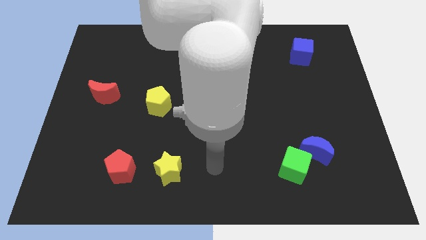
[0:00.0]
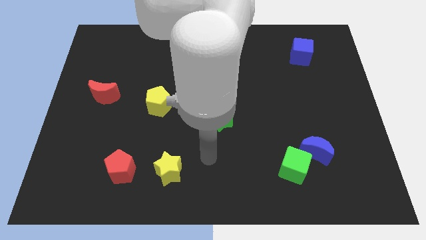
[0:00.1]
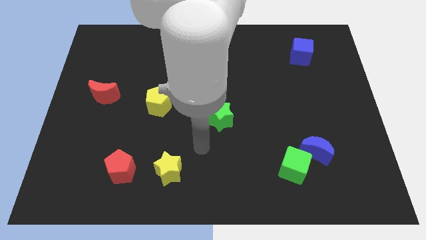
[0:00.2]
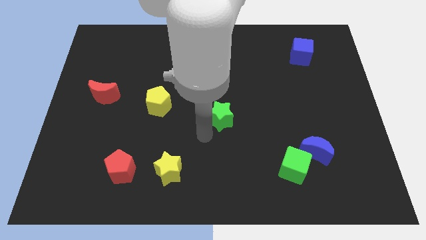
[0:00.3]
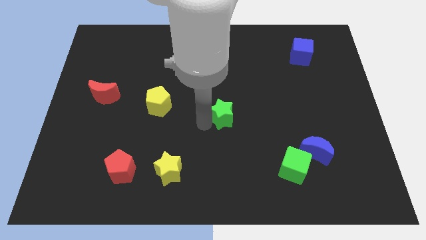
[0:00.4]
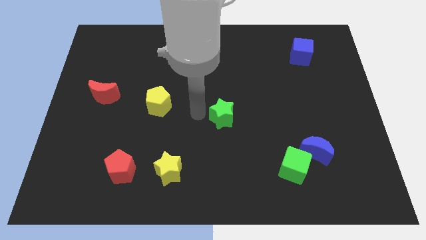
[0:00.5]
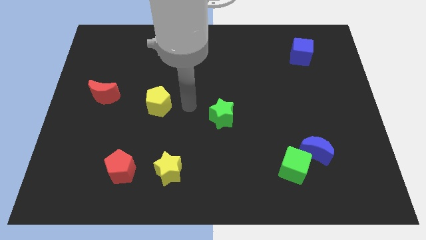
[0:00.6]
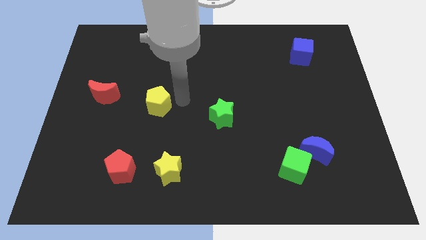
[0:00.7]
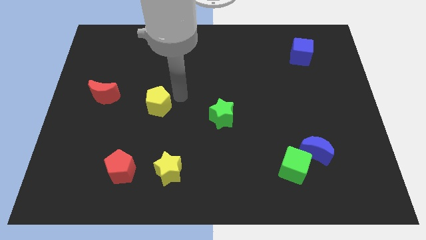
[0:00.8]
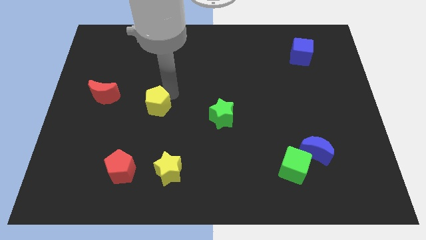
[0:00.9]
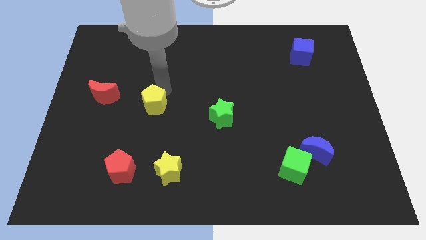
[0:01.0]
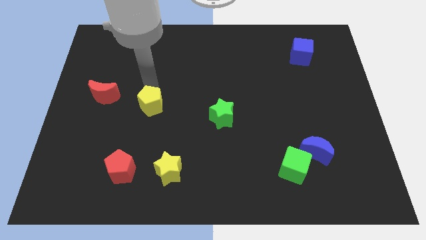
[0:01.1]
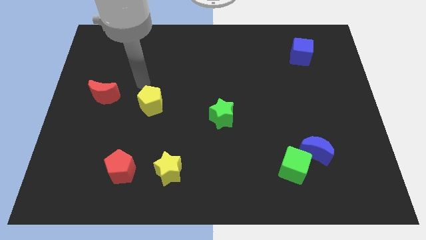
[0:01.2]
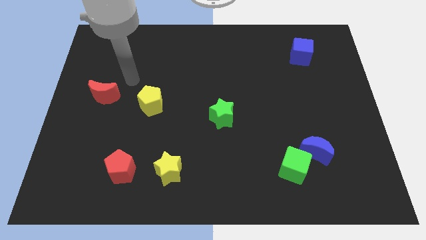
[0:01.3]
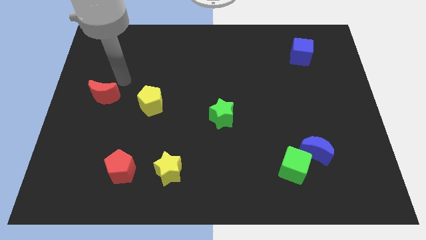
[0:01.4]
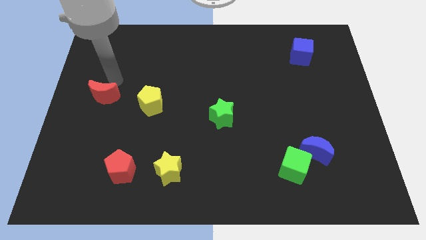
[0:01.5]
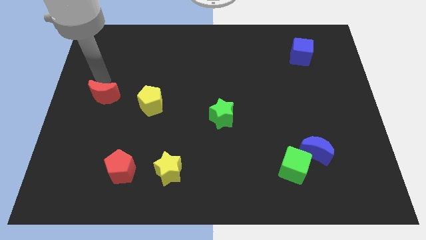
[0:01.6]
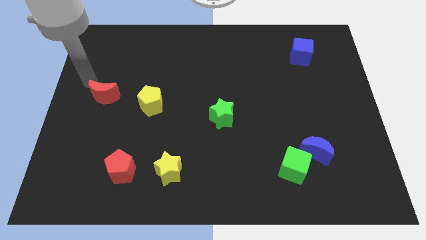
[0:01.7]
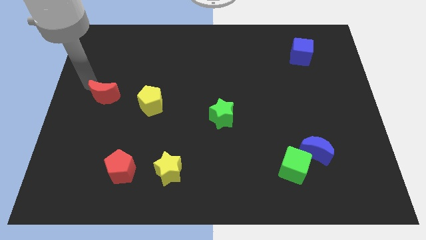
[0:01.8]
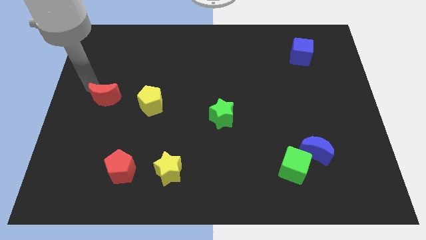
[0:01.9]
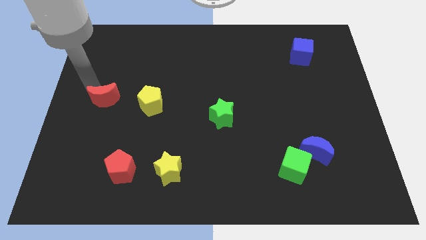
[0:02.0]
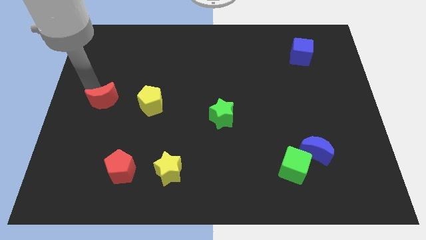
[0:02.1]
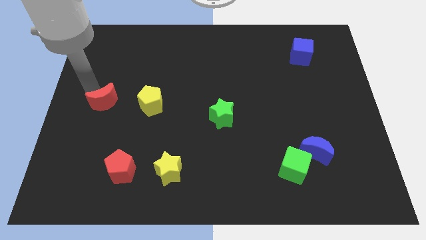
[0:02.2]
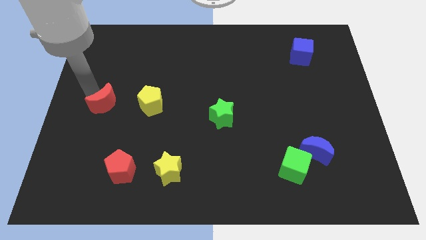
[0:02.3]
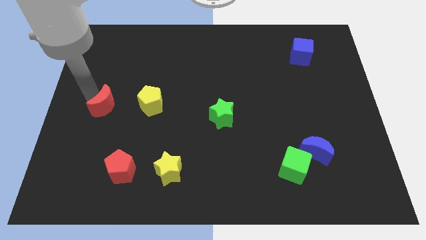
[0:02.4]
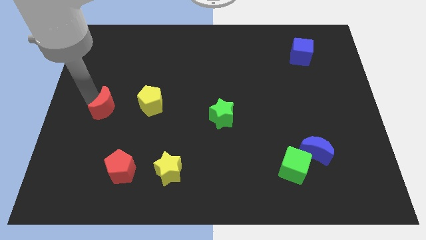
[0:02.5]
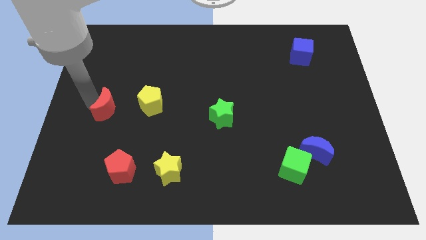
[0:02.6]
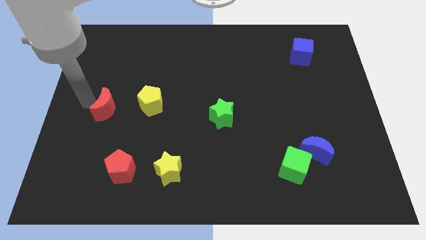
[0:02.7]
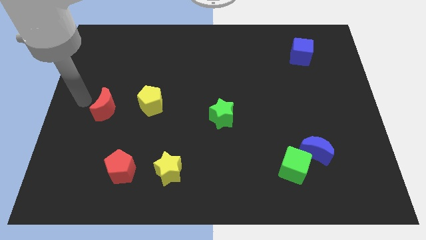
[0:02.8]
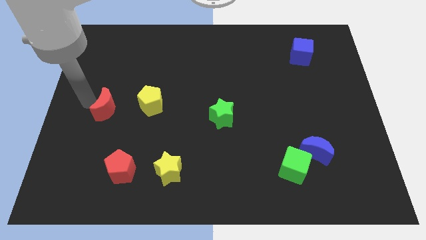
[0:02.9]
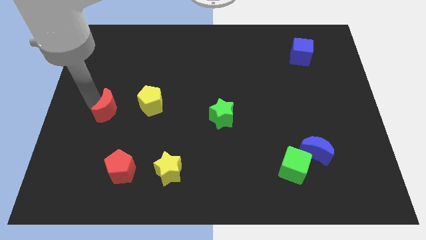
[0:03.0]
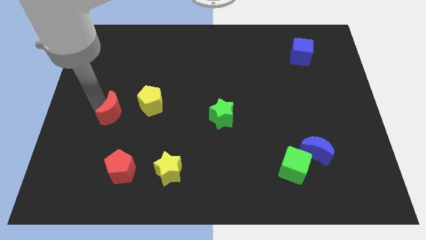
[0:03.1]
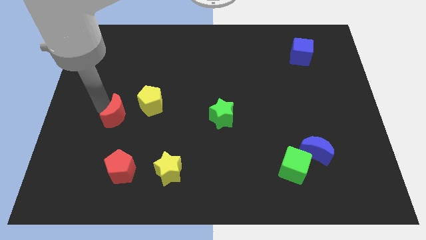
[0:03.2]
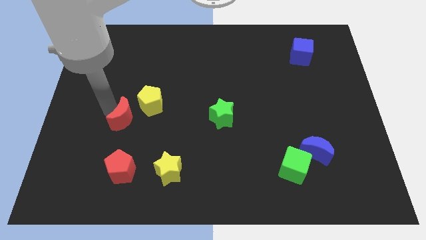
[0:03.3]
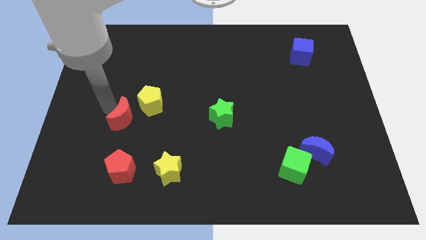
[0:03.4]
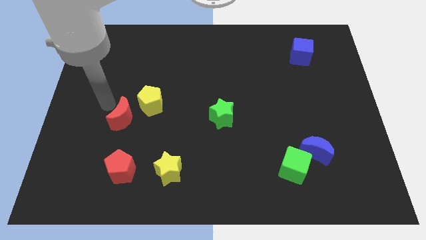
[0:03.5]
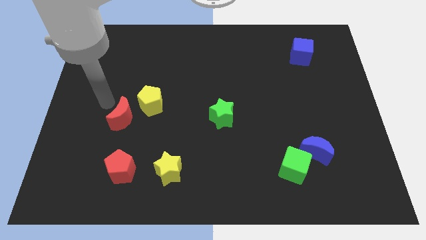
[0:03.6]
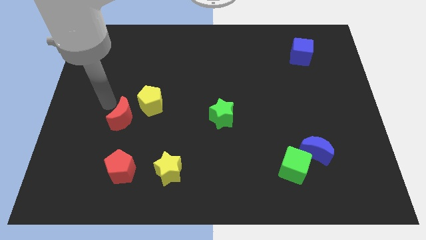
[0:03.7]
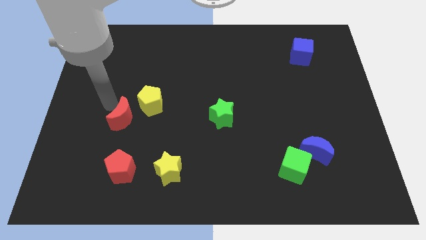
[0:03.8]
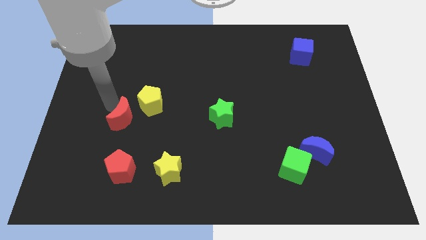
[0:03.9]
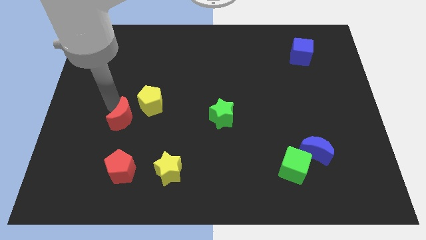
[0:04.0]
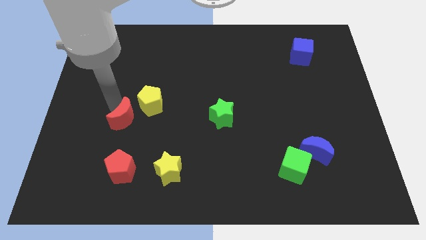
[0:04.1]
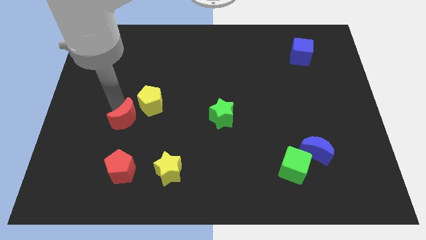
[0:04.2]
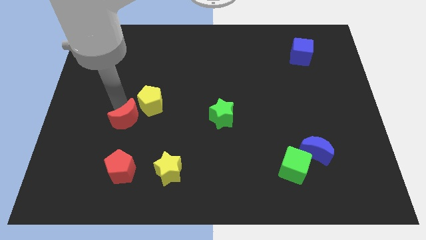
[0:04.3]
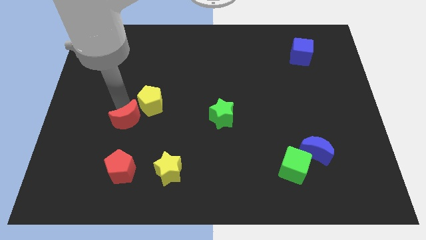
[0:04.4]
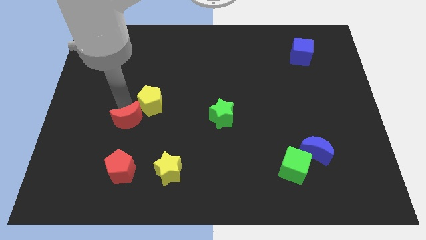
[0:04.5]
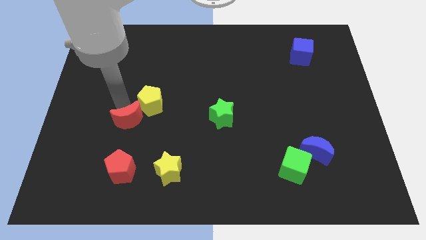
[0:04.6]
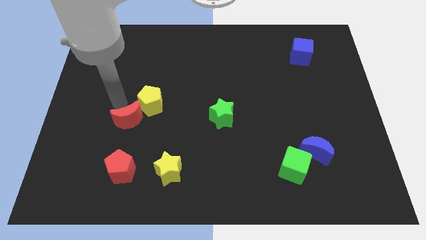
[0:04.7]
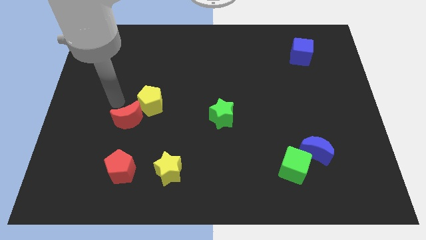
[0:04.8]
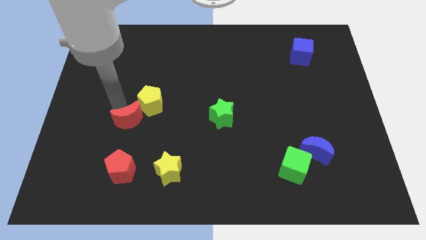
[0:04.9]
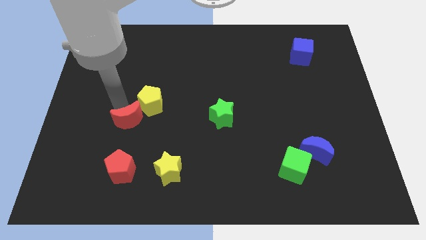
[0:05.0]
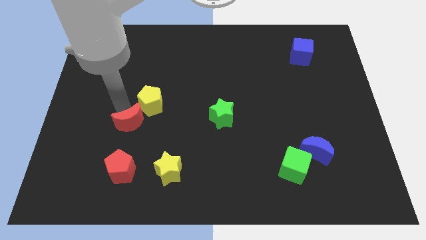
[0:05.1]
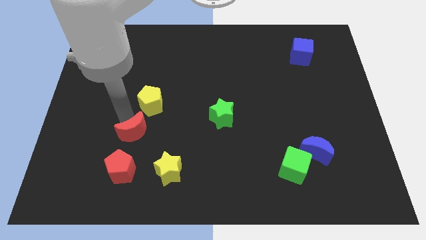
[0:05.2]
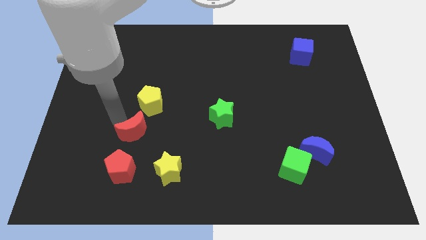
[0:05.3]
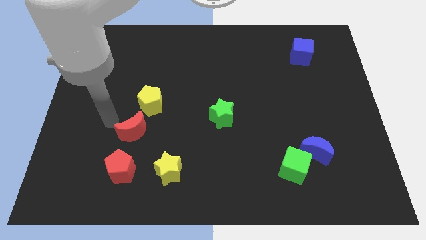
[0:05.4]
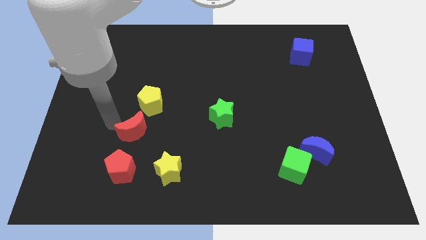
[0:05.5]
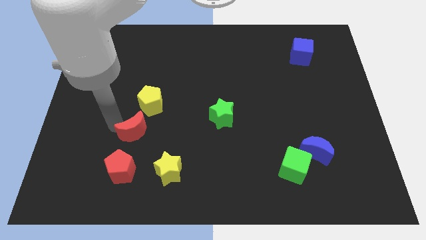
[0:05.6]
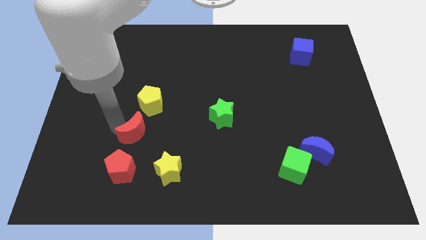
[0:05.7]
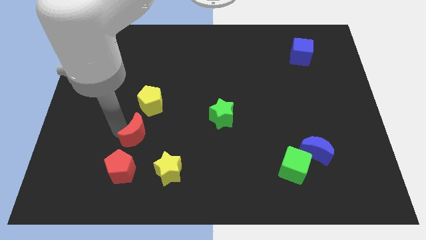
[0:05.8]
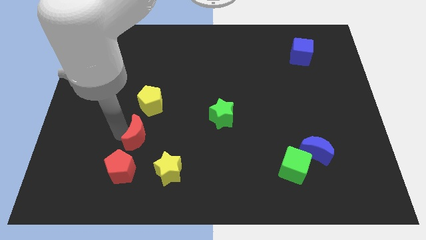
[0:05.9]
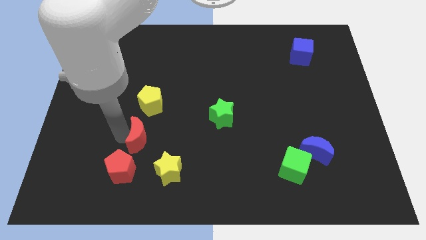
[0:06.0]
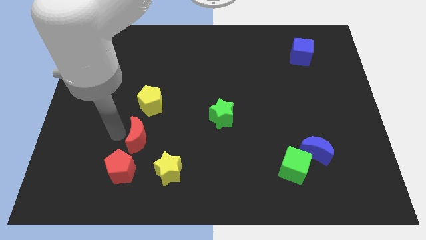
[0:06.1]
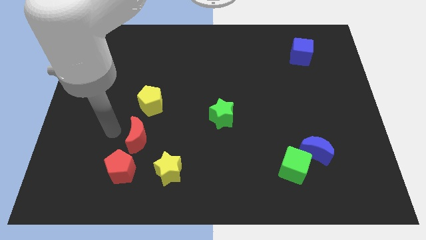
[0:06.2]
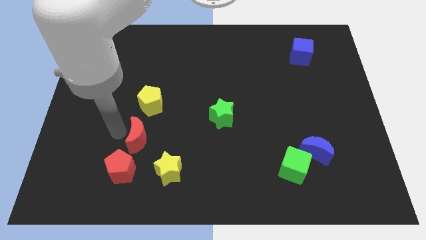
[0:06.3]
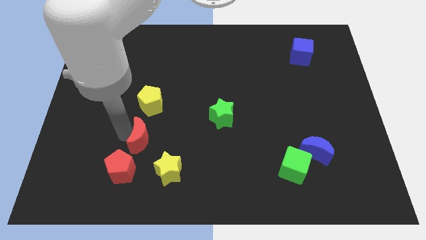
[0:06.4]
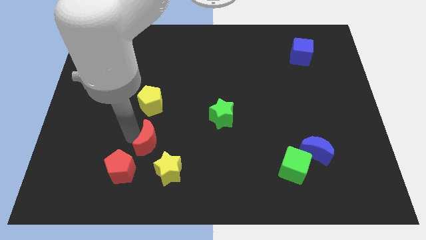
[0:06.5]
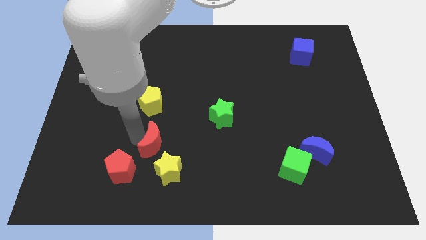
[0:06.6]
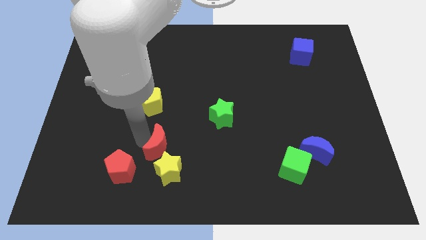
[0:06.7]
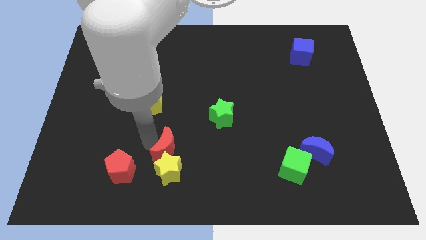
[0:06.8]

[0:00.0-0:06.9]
push the red moon to the right of the red pentagon

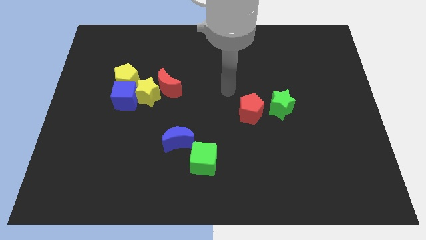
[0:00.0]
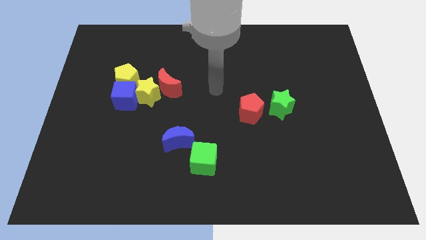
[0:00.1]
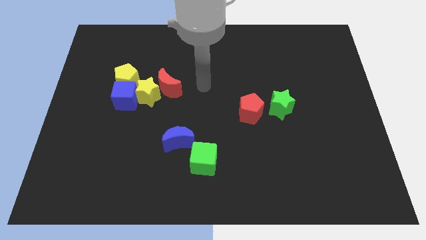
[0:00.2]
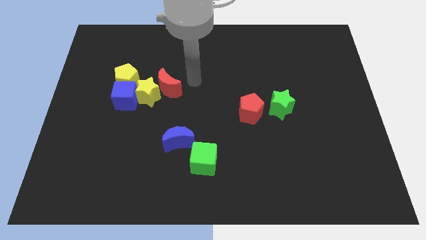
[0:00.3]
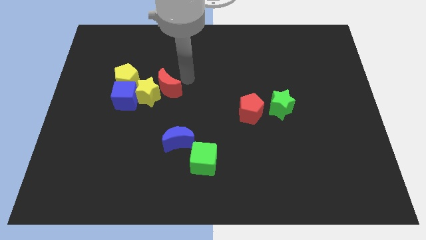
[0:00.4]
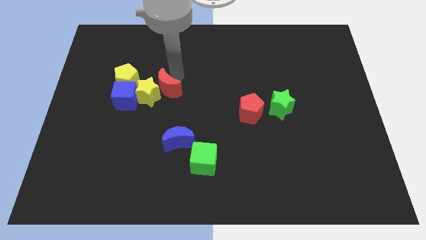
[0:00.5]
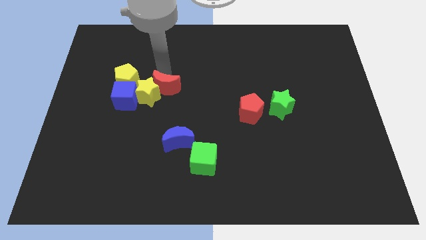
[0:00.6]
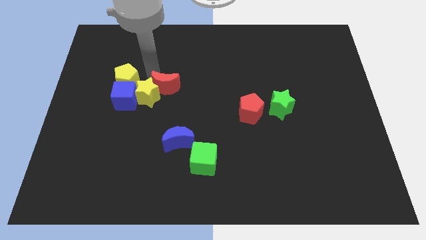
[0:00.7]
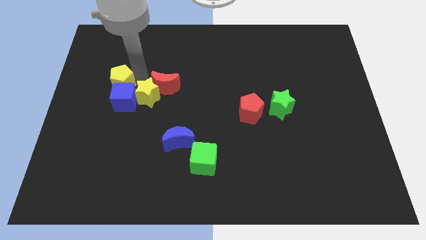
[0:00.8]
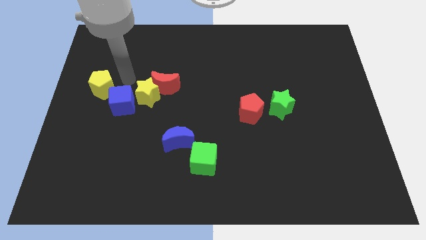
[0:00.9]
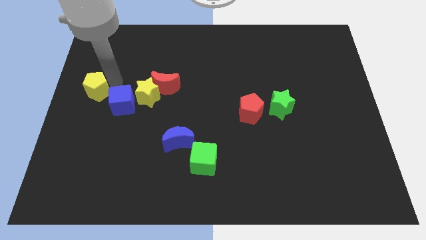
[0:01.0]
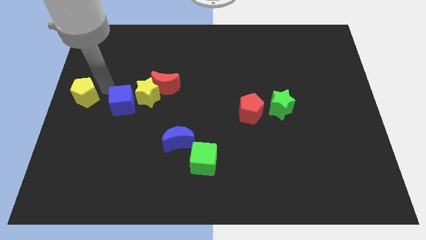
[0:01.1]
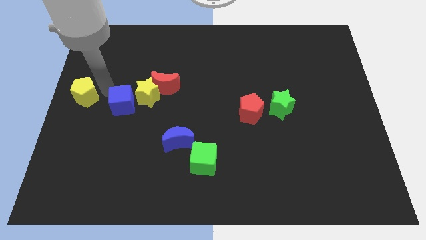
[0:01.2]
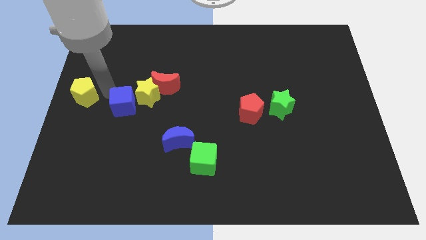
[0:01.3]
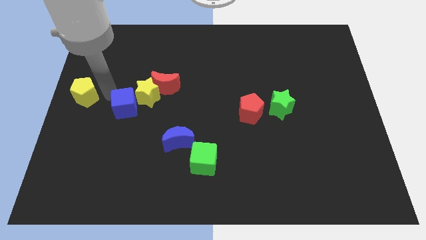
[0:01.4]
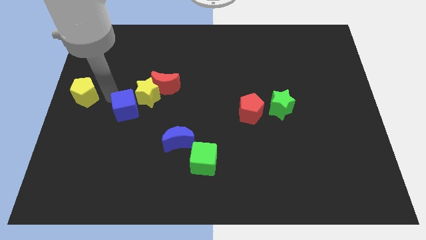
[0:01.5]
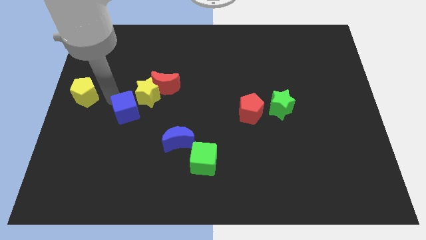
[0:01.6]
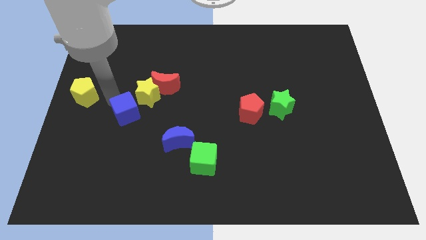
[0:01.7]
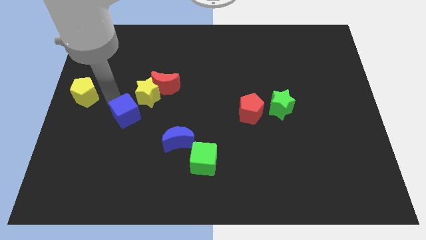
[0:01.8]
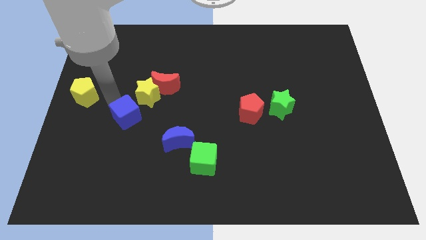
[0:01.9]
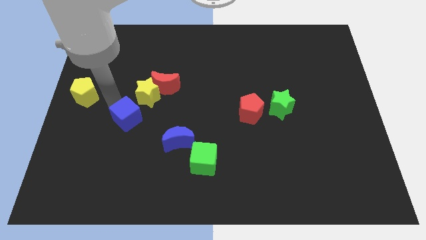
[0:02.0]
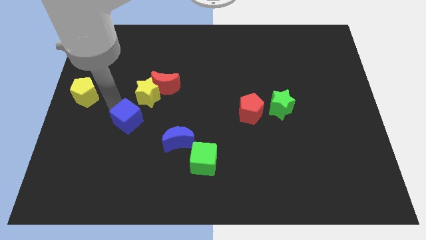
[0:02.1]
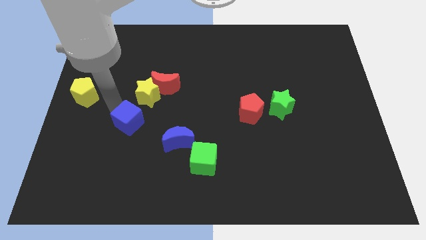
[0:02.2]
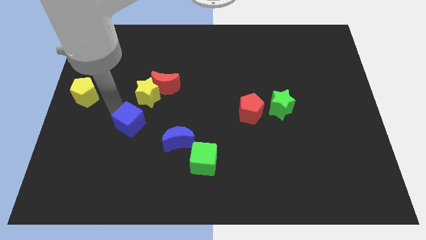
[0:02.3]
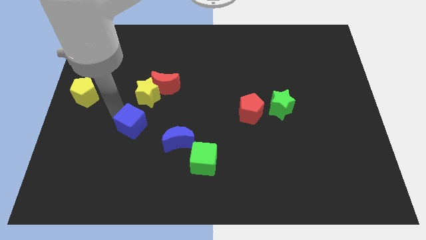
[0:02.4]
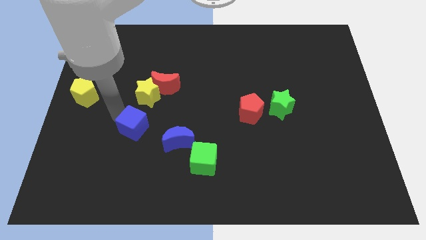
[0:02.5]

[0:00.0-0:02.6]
push the blue cube to the top left side of the blue moon
